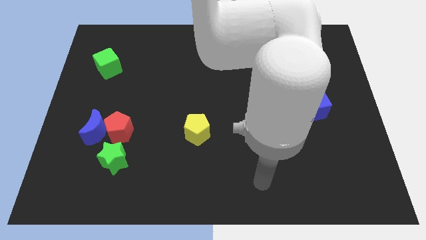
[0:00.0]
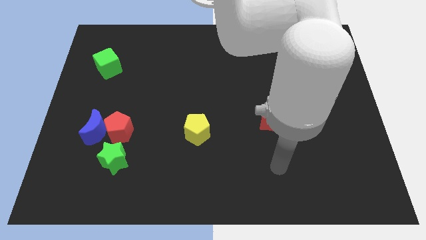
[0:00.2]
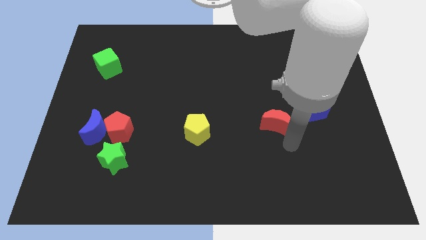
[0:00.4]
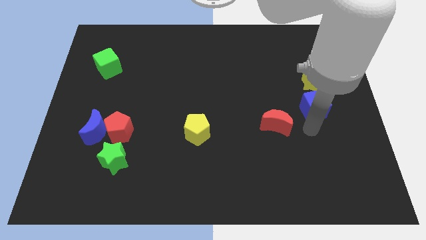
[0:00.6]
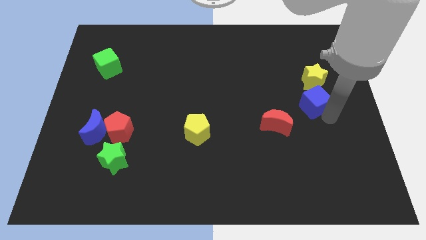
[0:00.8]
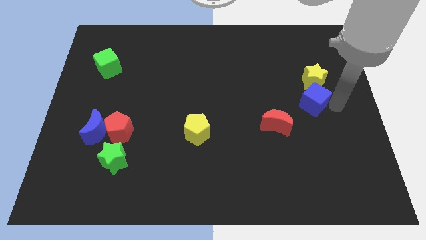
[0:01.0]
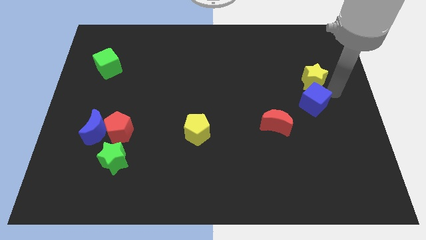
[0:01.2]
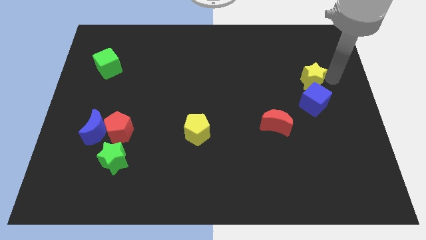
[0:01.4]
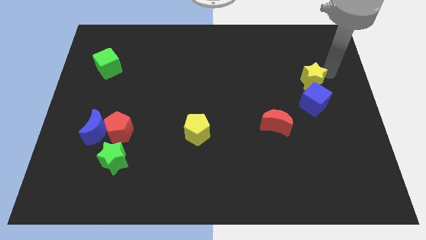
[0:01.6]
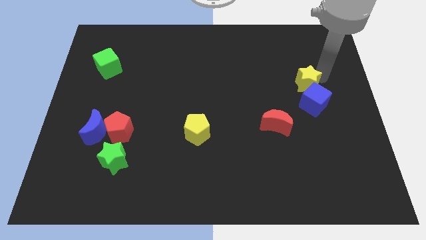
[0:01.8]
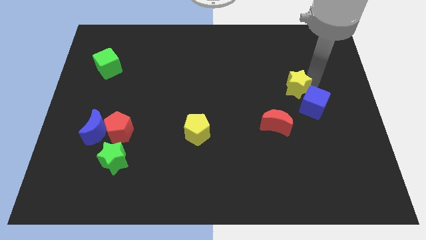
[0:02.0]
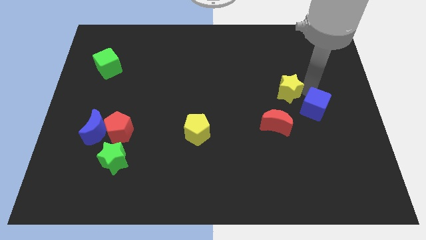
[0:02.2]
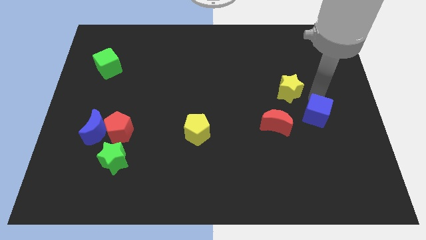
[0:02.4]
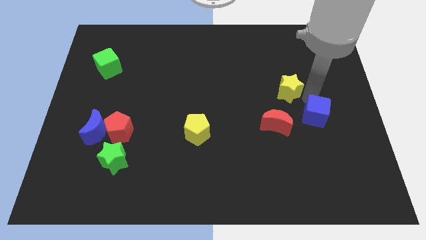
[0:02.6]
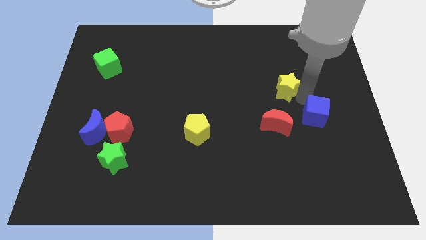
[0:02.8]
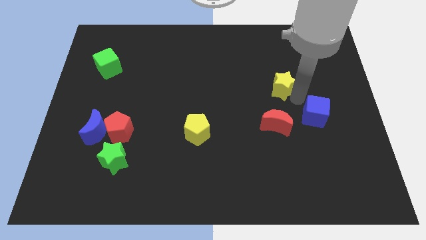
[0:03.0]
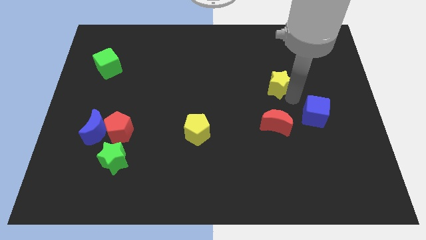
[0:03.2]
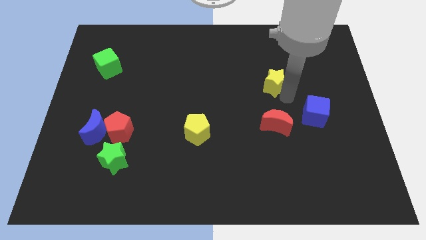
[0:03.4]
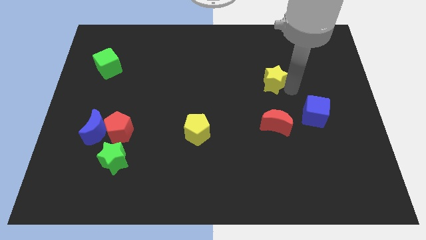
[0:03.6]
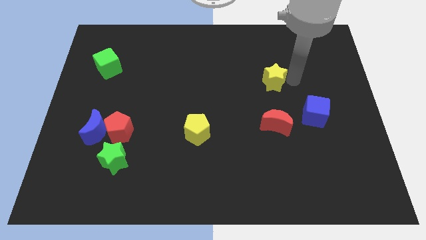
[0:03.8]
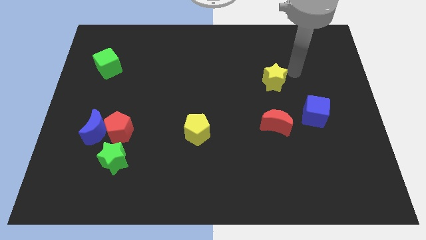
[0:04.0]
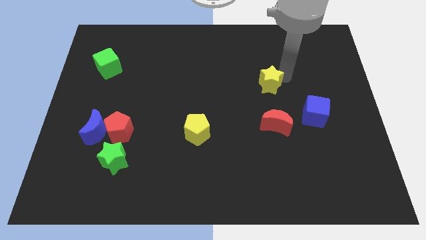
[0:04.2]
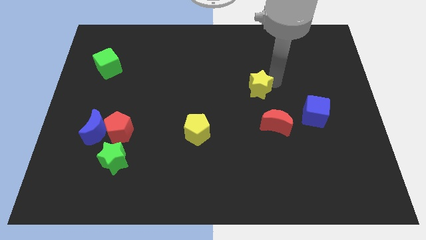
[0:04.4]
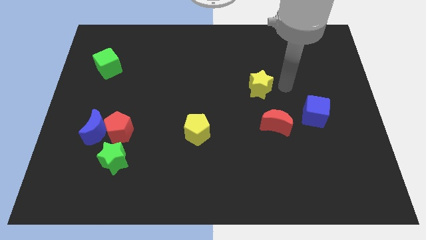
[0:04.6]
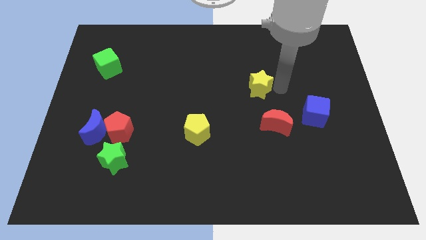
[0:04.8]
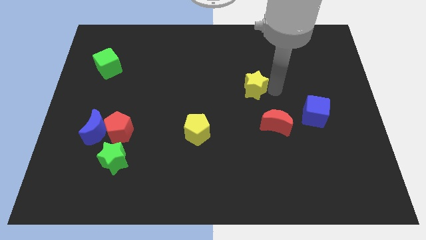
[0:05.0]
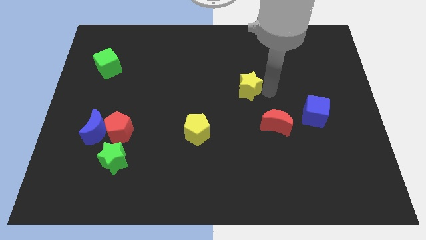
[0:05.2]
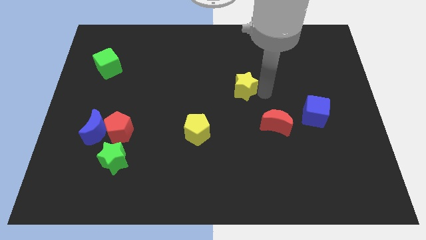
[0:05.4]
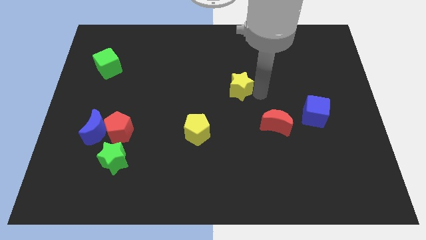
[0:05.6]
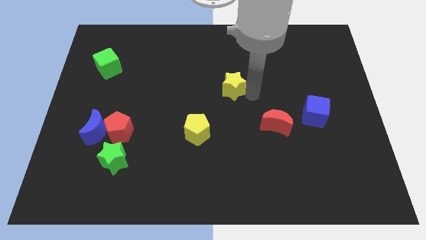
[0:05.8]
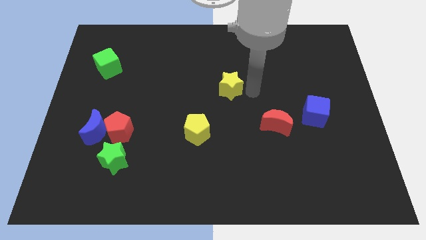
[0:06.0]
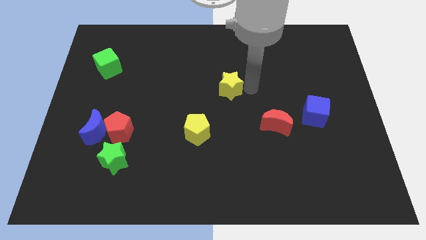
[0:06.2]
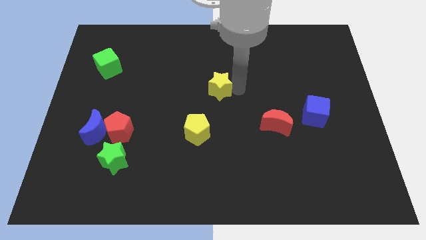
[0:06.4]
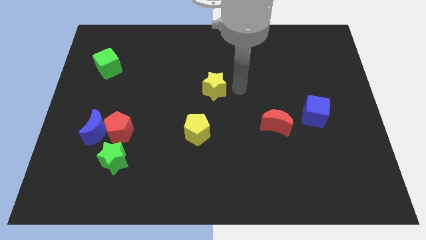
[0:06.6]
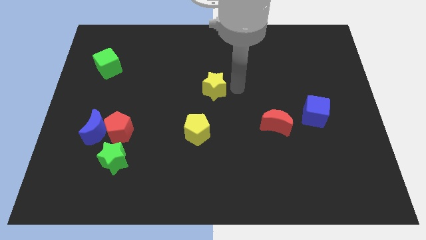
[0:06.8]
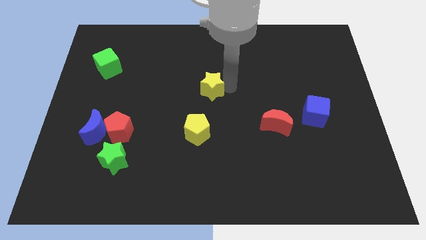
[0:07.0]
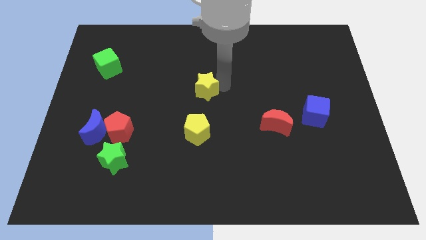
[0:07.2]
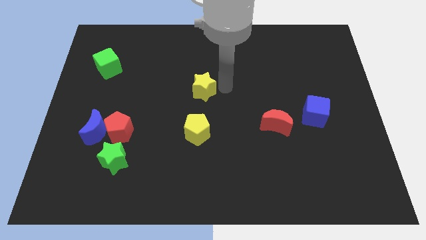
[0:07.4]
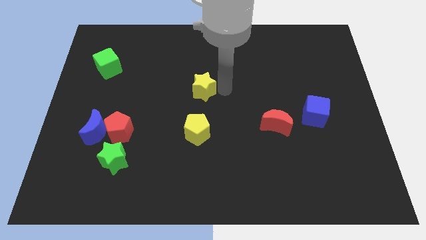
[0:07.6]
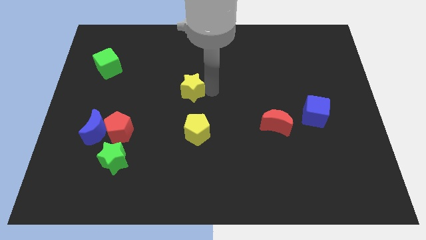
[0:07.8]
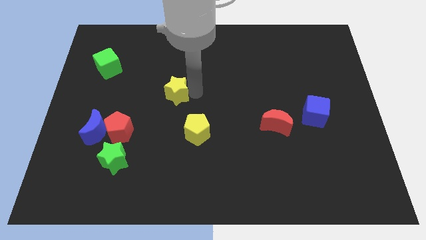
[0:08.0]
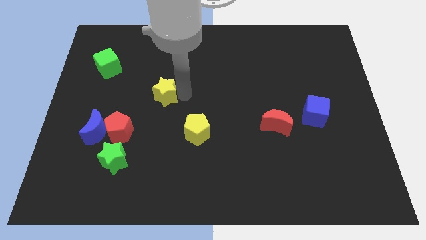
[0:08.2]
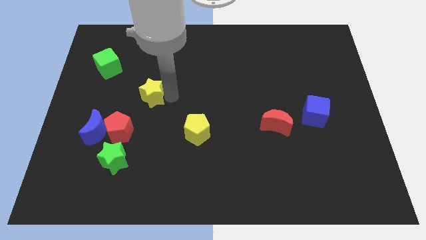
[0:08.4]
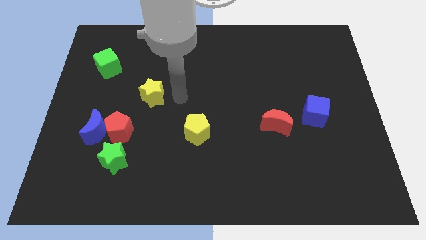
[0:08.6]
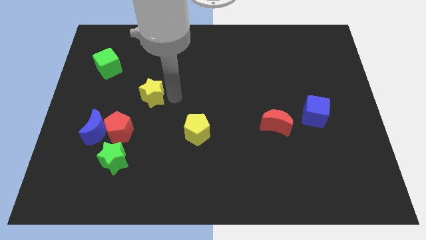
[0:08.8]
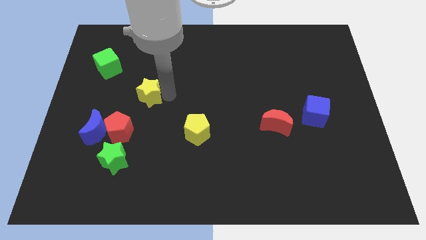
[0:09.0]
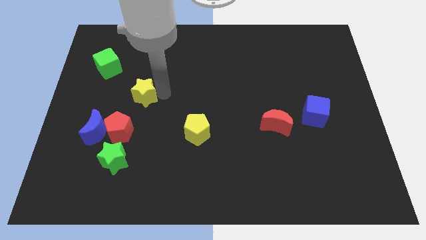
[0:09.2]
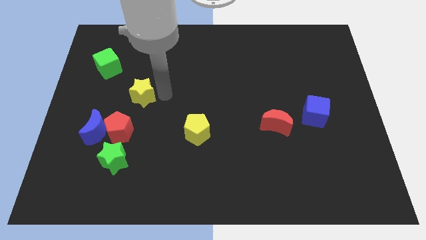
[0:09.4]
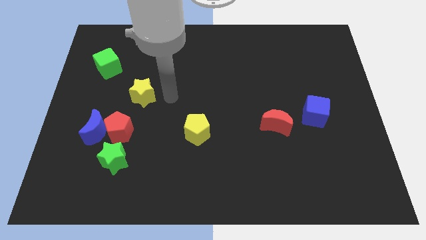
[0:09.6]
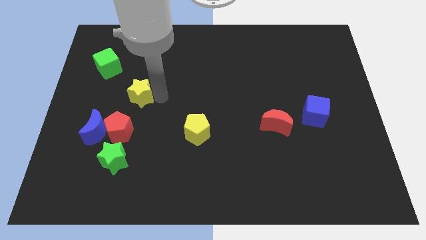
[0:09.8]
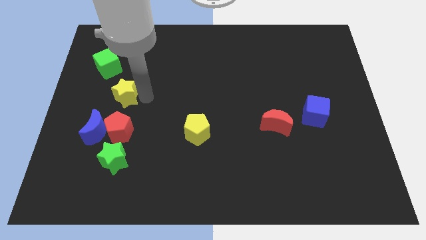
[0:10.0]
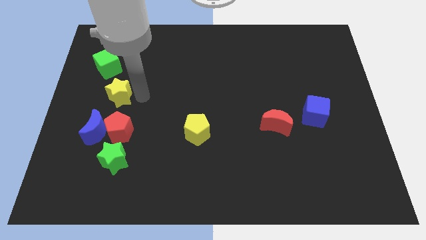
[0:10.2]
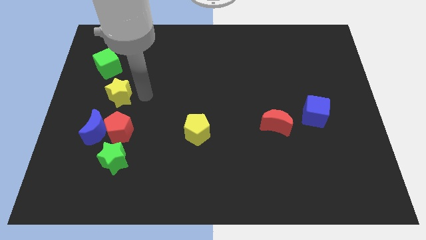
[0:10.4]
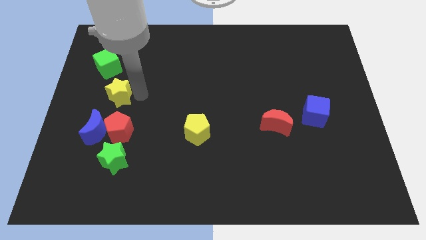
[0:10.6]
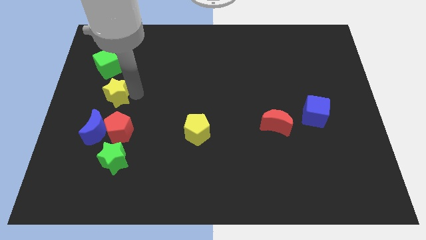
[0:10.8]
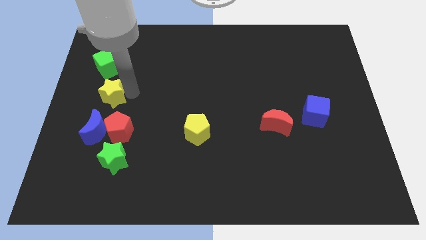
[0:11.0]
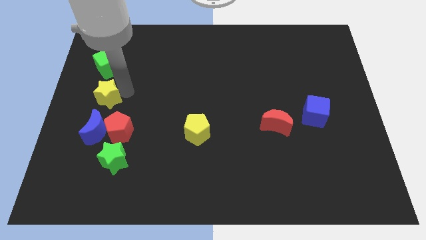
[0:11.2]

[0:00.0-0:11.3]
slide the yellow star to the left side

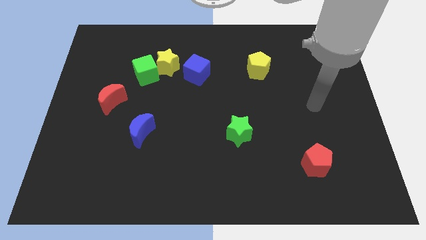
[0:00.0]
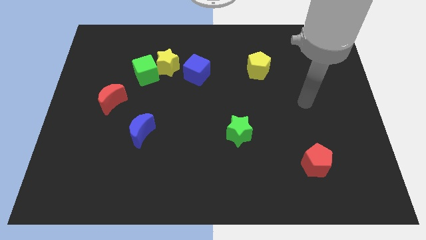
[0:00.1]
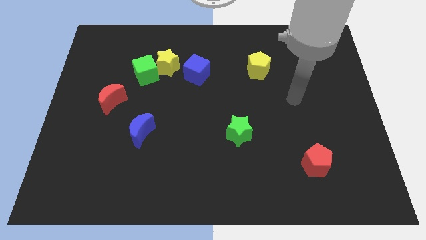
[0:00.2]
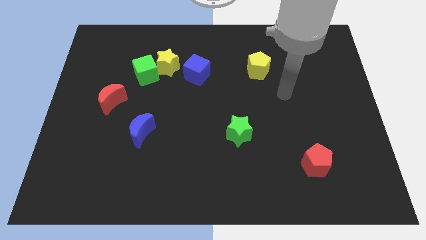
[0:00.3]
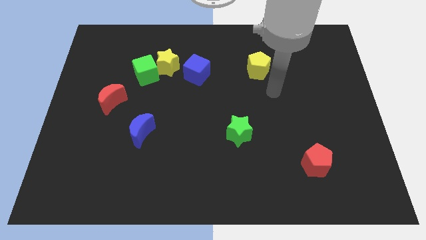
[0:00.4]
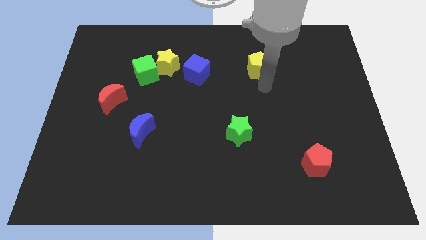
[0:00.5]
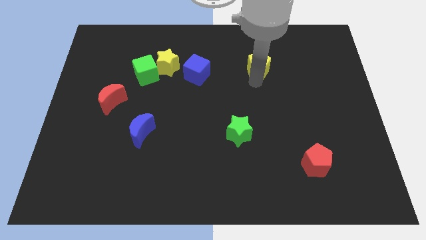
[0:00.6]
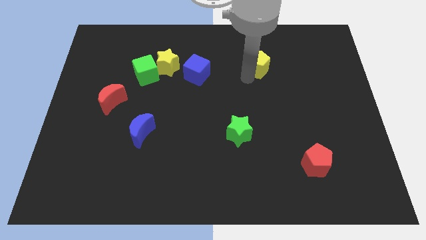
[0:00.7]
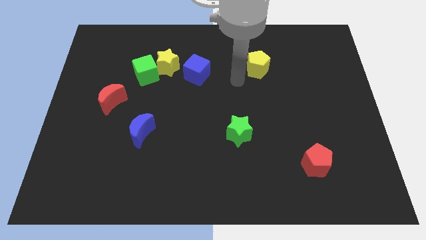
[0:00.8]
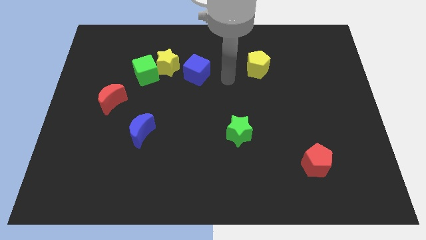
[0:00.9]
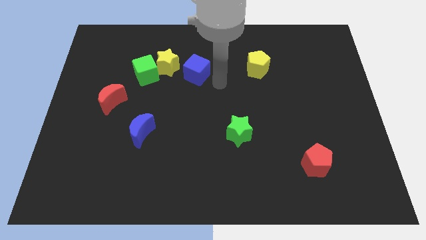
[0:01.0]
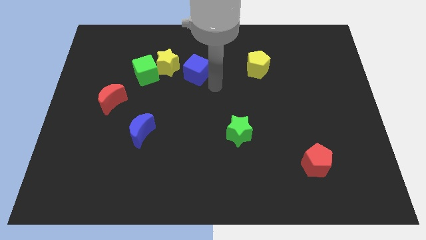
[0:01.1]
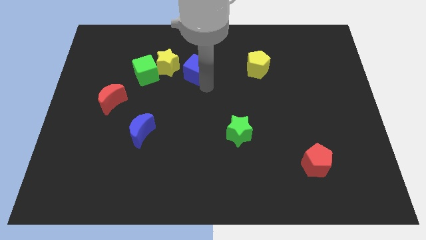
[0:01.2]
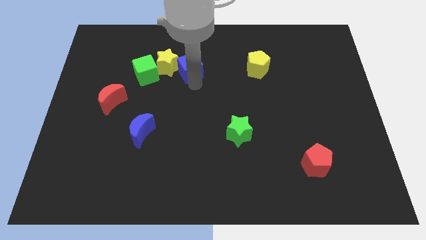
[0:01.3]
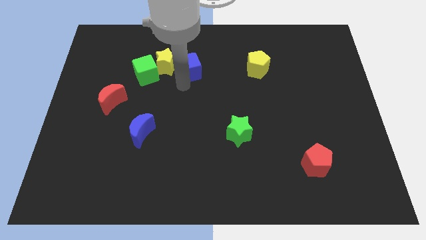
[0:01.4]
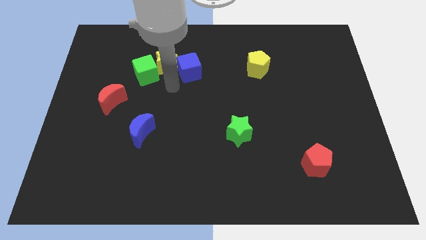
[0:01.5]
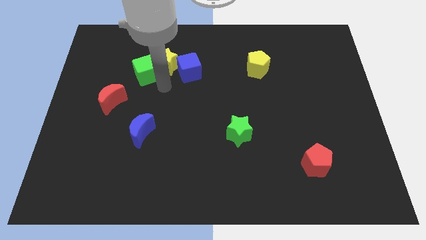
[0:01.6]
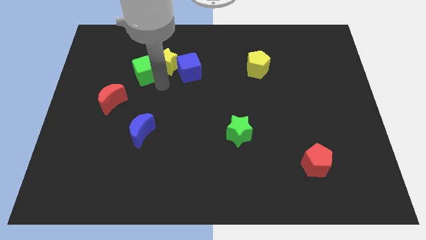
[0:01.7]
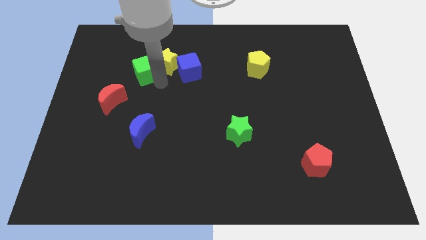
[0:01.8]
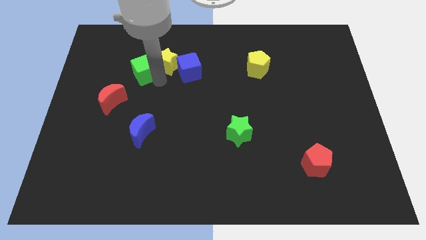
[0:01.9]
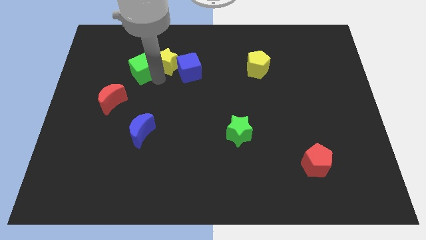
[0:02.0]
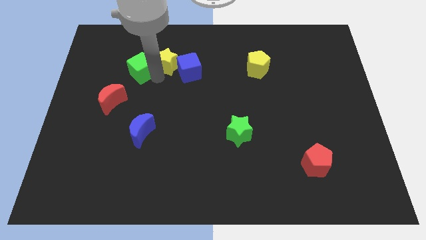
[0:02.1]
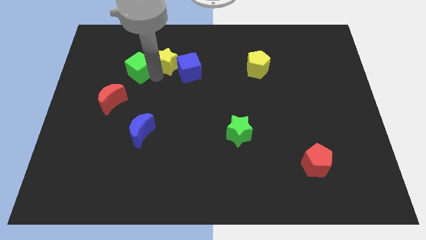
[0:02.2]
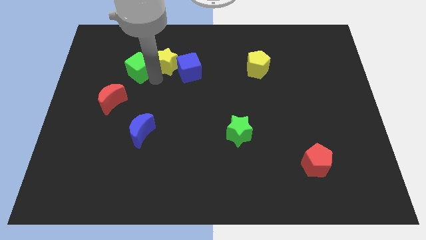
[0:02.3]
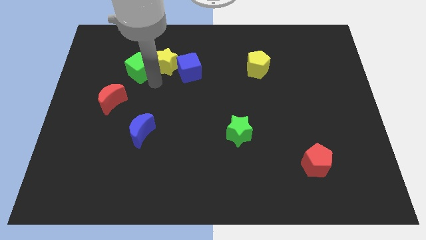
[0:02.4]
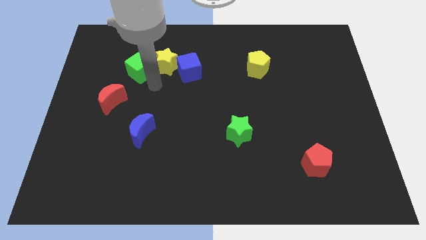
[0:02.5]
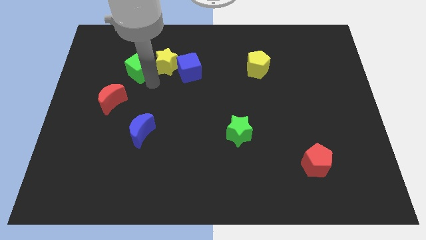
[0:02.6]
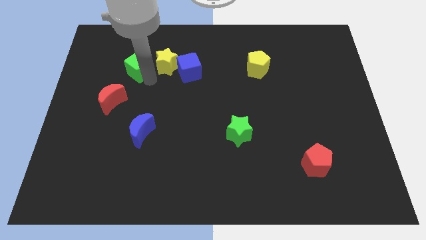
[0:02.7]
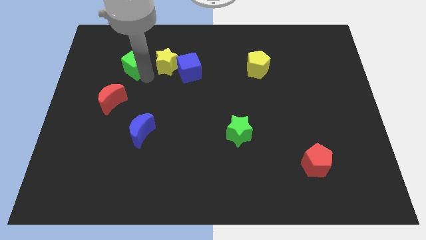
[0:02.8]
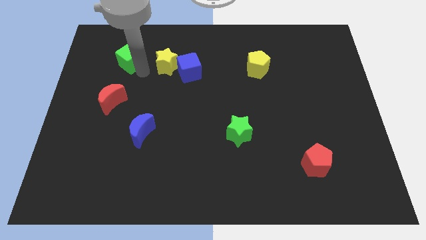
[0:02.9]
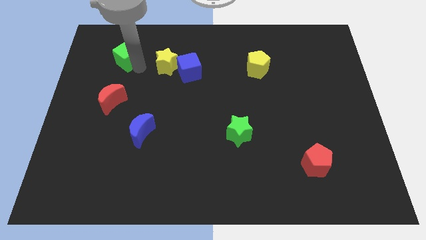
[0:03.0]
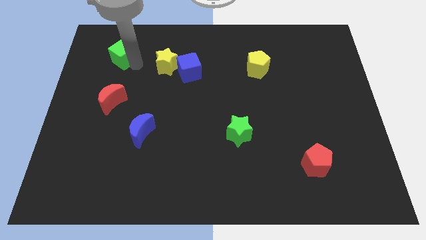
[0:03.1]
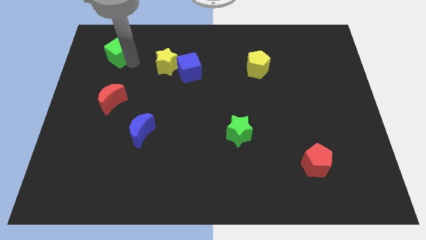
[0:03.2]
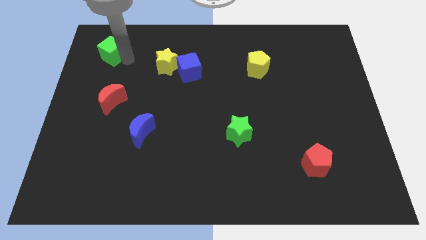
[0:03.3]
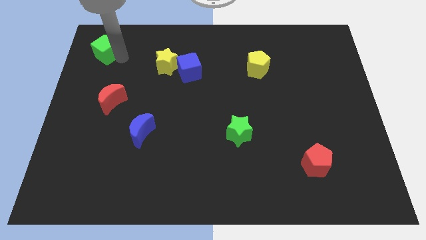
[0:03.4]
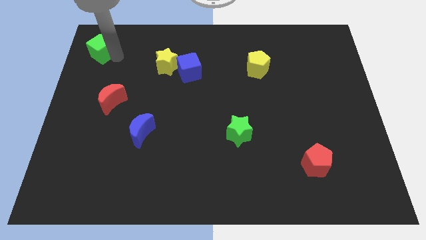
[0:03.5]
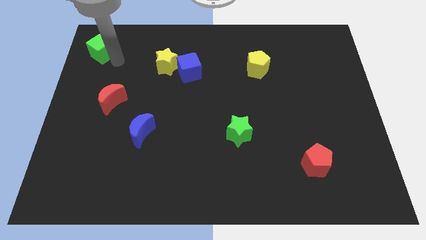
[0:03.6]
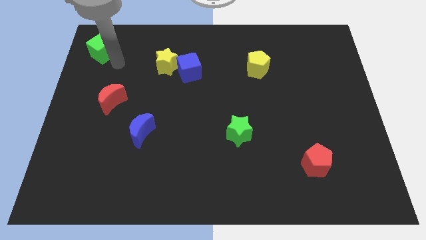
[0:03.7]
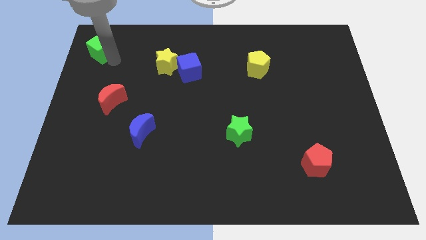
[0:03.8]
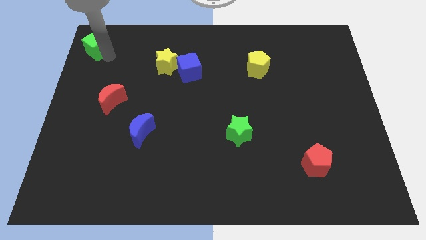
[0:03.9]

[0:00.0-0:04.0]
put the green cube to the top left of the board
